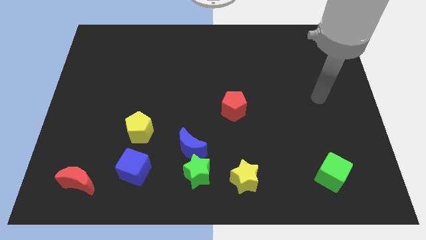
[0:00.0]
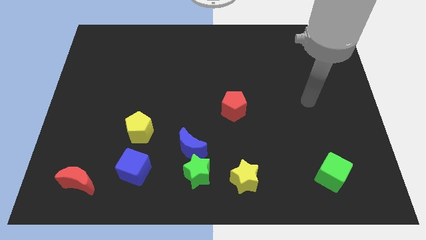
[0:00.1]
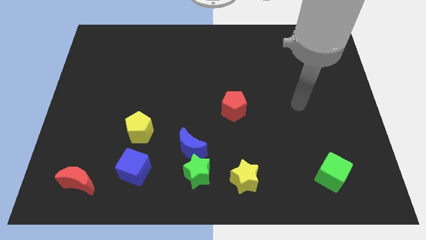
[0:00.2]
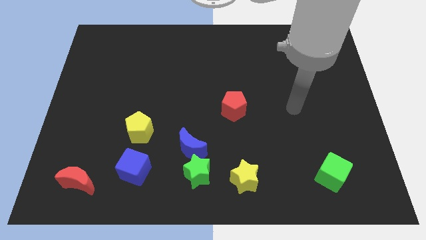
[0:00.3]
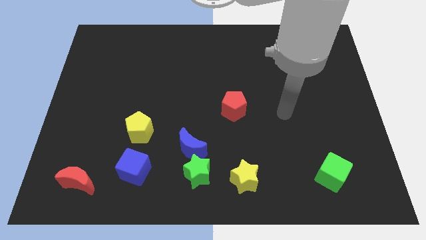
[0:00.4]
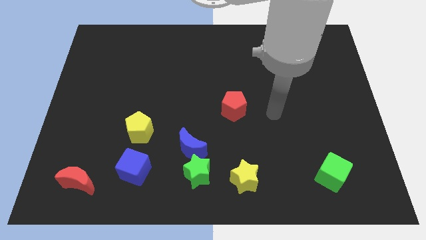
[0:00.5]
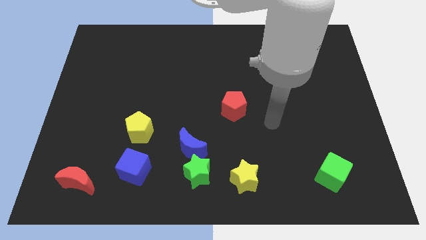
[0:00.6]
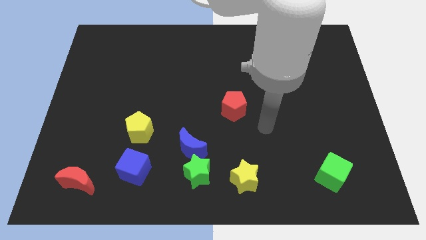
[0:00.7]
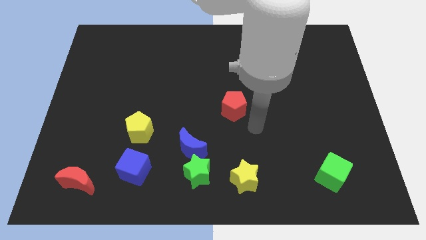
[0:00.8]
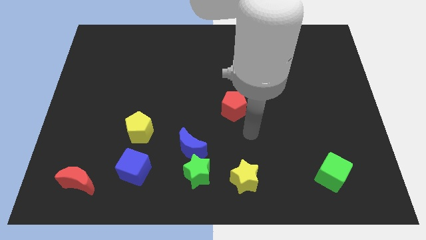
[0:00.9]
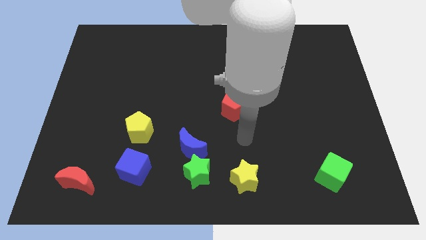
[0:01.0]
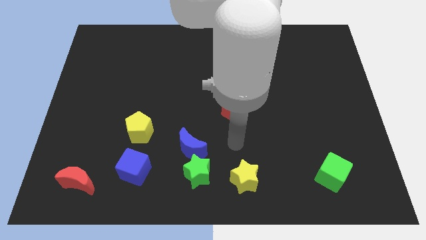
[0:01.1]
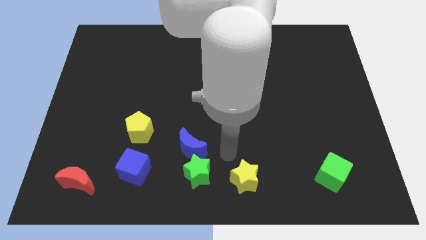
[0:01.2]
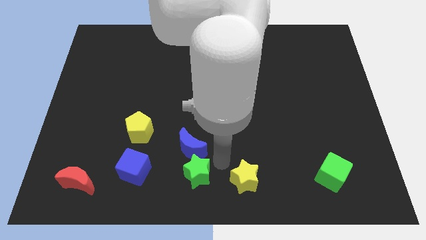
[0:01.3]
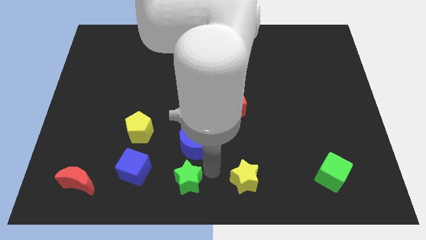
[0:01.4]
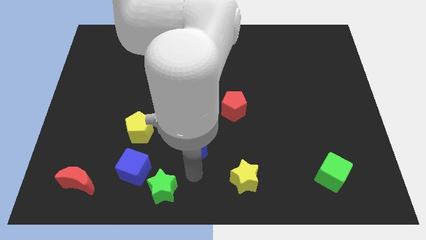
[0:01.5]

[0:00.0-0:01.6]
move the blue moon away from the green star

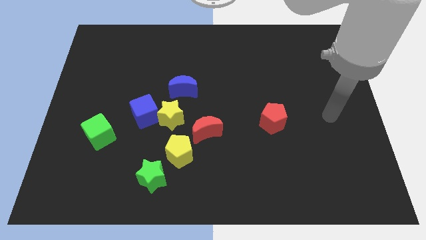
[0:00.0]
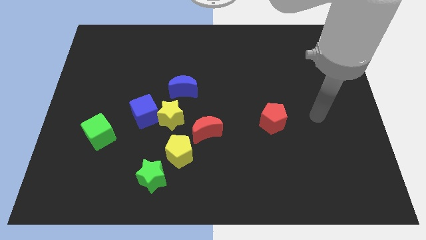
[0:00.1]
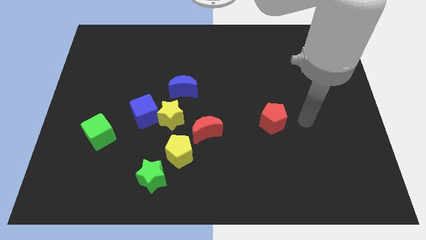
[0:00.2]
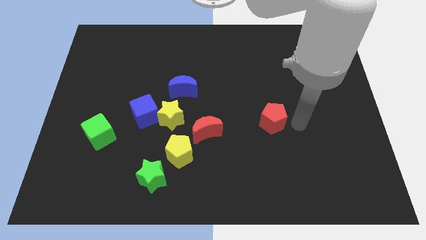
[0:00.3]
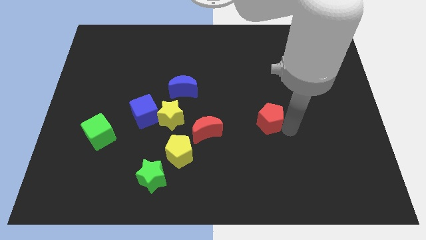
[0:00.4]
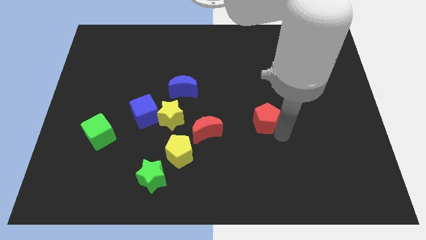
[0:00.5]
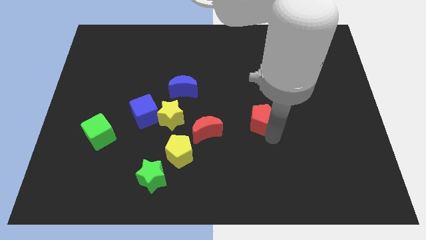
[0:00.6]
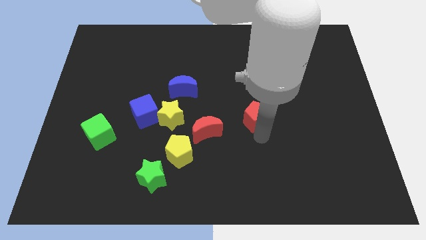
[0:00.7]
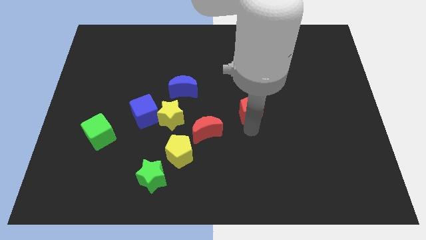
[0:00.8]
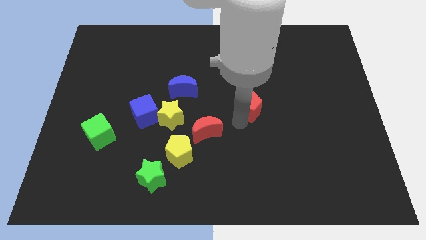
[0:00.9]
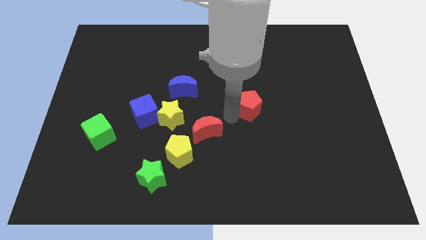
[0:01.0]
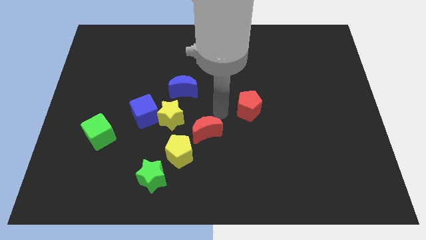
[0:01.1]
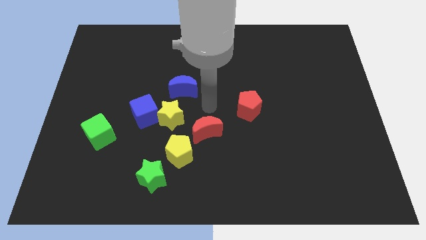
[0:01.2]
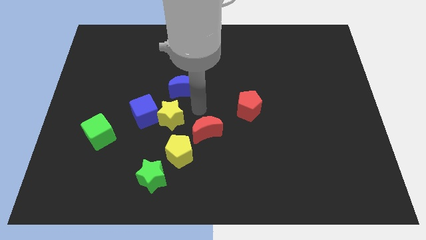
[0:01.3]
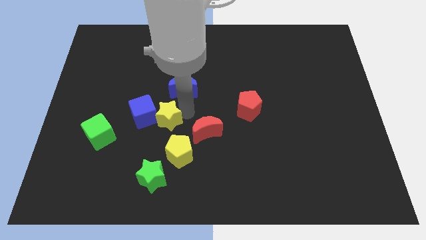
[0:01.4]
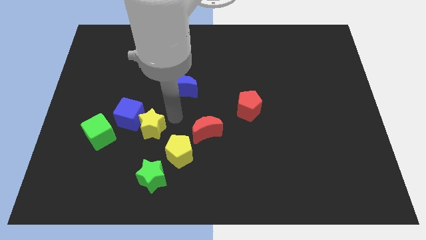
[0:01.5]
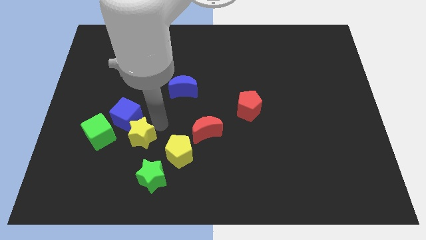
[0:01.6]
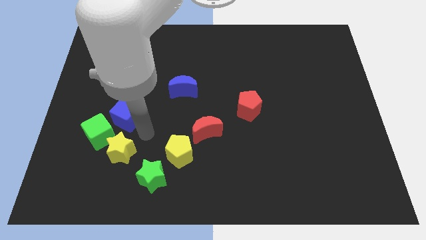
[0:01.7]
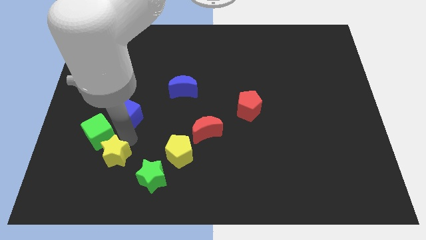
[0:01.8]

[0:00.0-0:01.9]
separate the blue cube from the yellow star

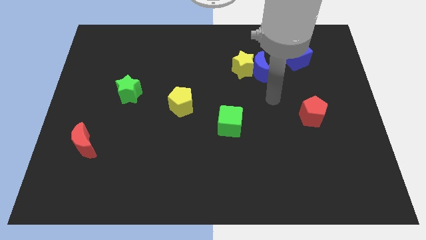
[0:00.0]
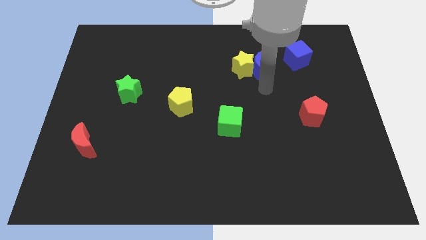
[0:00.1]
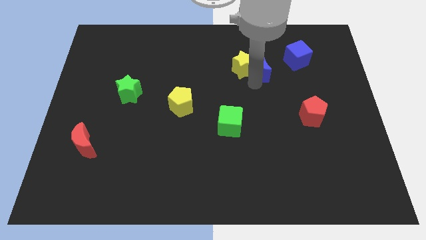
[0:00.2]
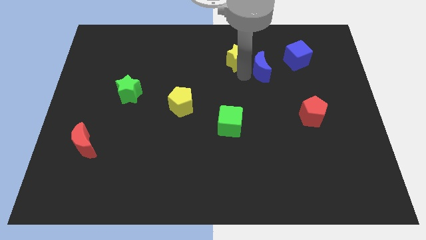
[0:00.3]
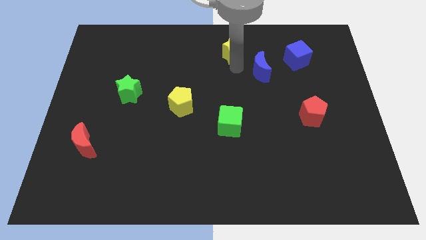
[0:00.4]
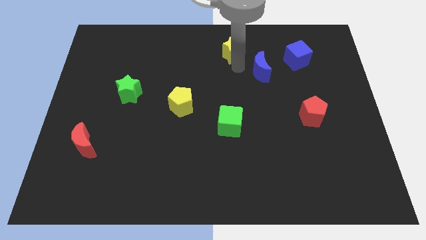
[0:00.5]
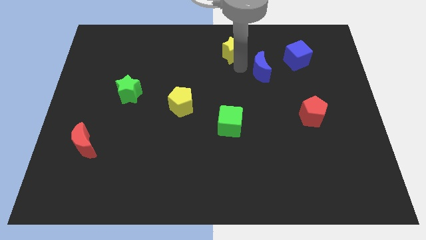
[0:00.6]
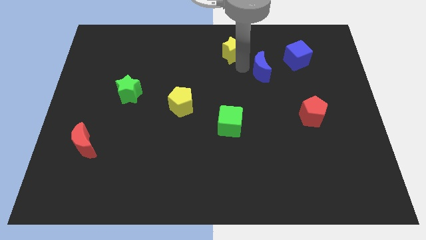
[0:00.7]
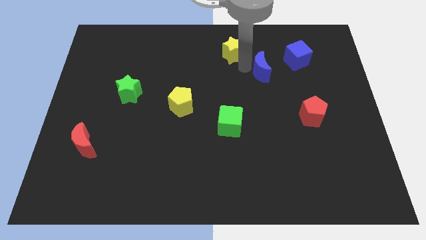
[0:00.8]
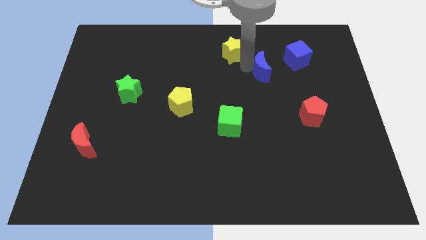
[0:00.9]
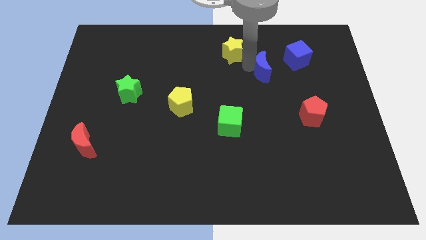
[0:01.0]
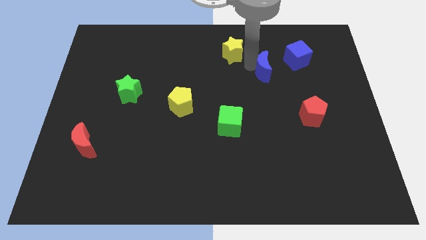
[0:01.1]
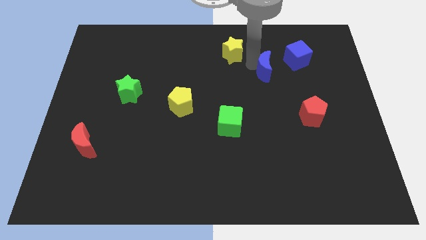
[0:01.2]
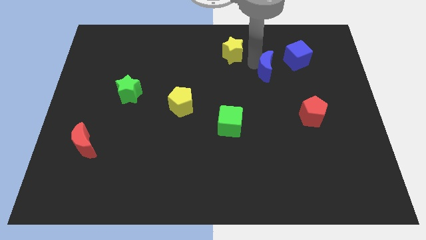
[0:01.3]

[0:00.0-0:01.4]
pull the blue moon apart from the yellow star

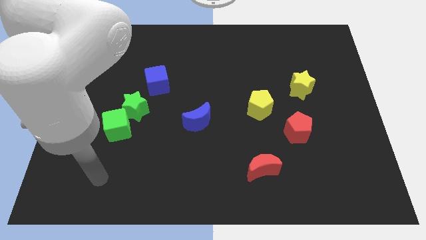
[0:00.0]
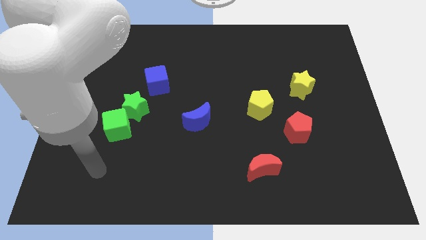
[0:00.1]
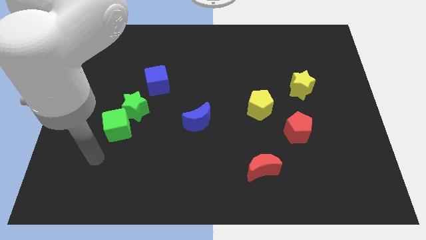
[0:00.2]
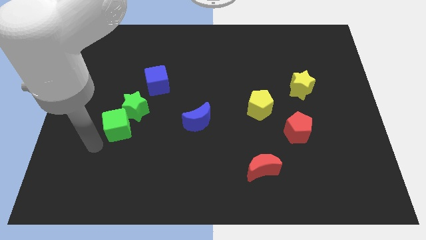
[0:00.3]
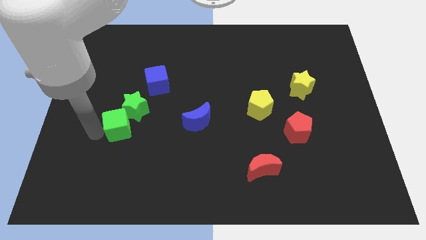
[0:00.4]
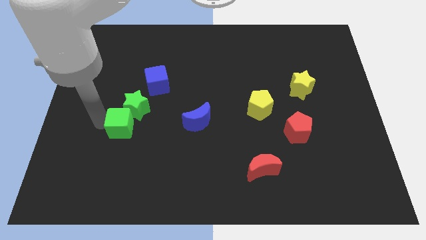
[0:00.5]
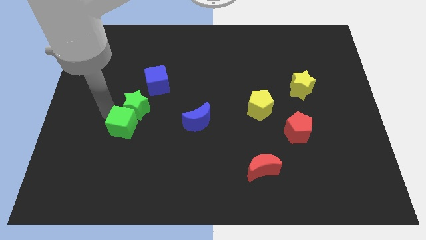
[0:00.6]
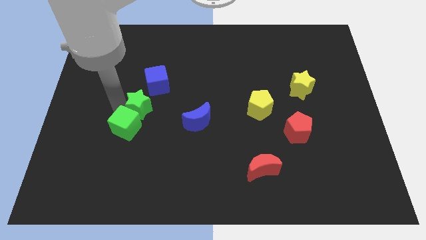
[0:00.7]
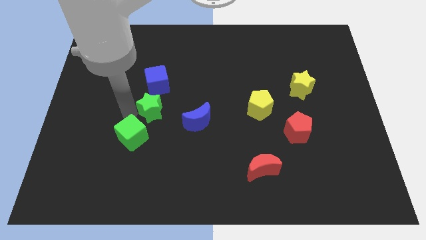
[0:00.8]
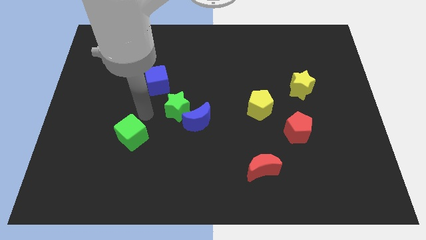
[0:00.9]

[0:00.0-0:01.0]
move the green cube away from the green star

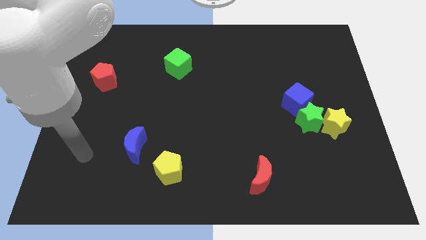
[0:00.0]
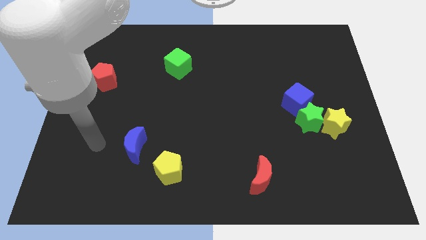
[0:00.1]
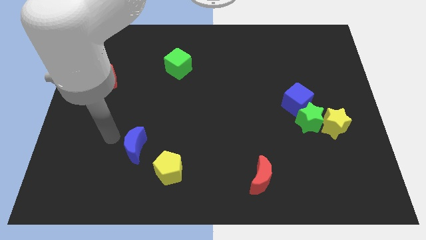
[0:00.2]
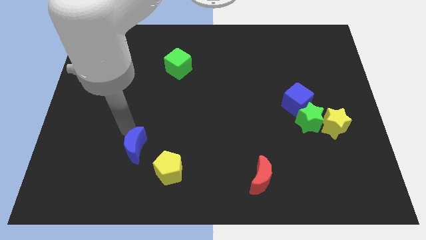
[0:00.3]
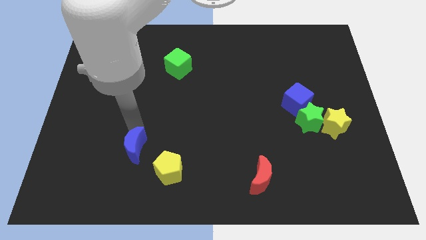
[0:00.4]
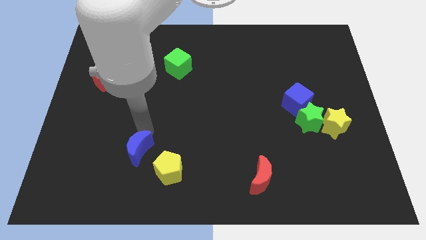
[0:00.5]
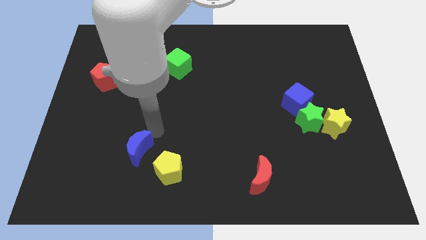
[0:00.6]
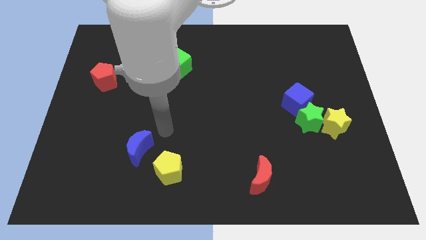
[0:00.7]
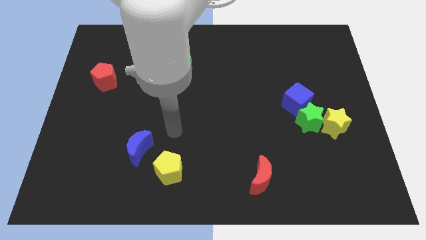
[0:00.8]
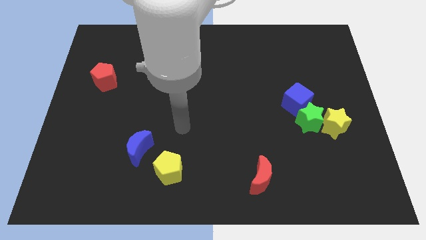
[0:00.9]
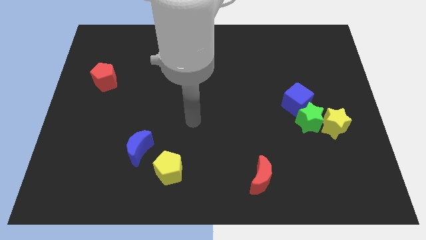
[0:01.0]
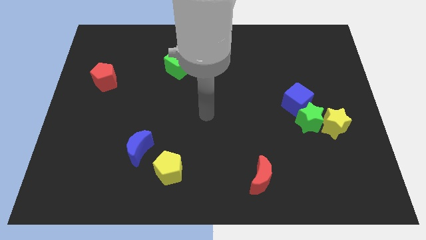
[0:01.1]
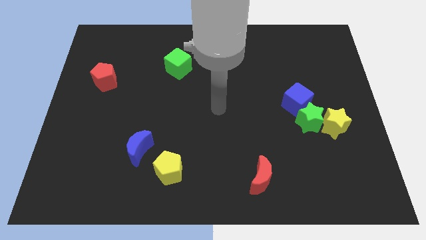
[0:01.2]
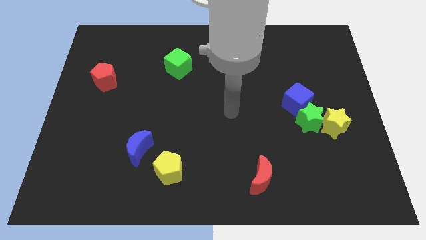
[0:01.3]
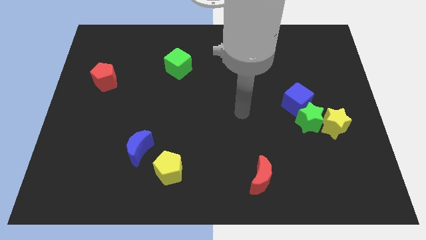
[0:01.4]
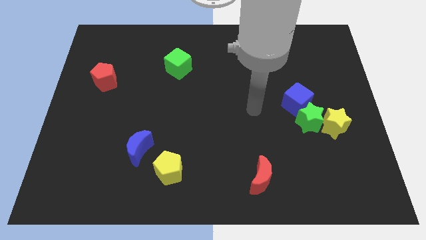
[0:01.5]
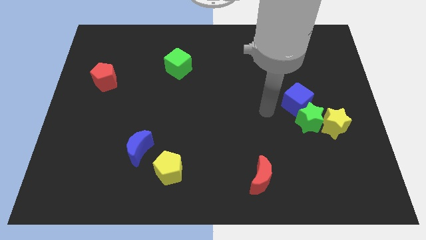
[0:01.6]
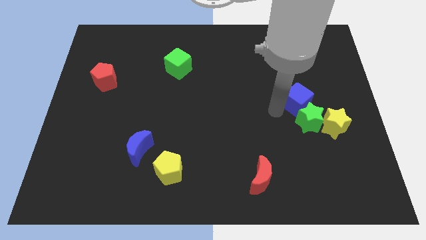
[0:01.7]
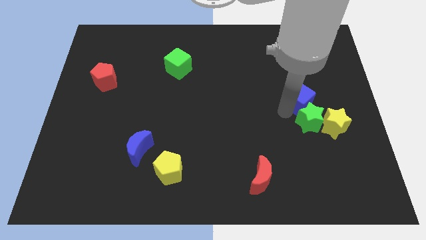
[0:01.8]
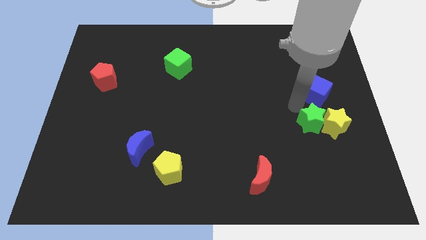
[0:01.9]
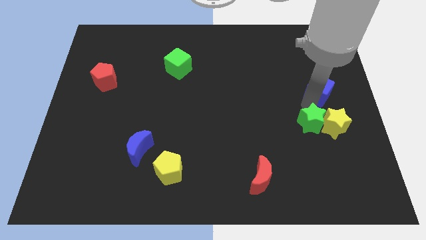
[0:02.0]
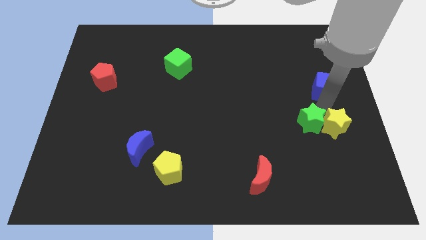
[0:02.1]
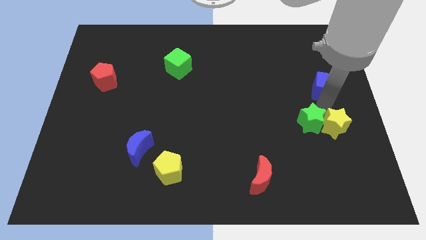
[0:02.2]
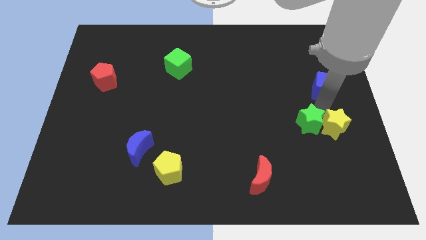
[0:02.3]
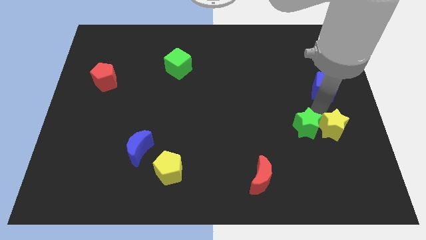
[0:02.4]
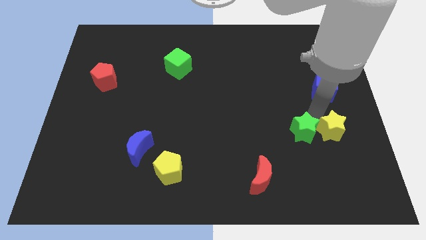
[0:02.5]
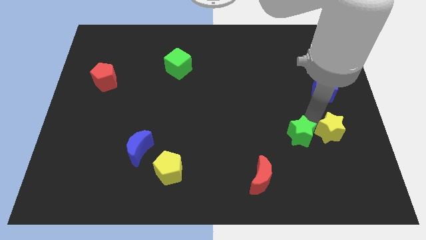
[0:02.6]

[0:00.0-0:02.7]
pull the green star apart from the yellow star and blue cube

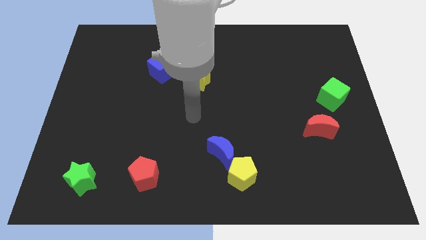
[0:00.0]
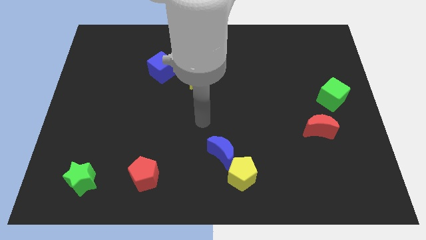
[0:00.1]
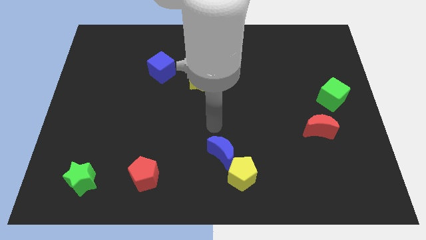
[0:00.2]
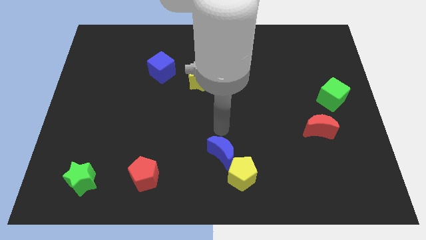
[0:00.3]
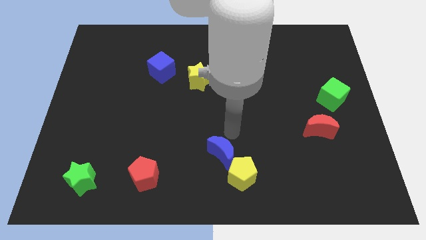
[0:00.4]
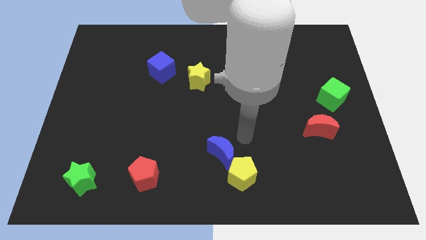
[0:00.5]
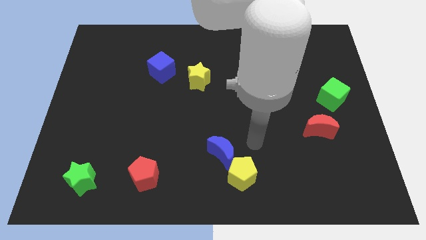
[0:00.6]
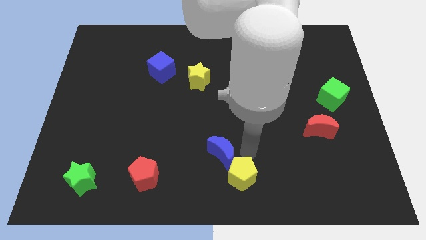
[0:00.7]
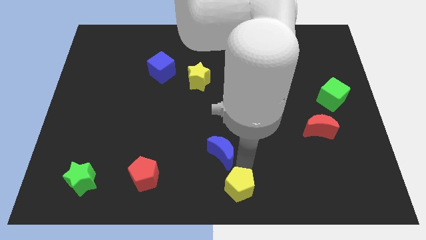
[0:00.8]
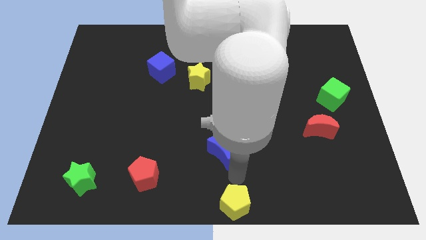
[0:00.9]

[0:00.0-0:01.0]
move the blue moon away from the yellow pentagon
